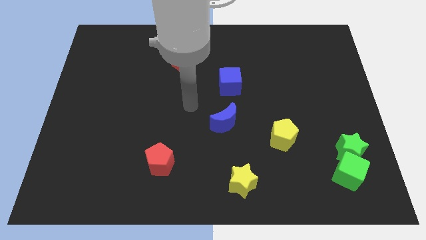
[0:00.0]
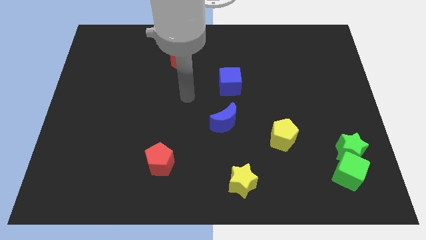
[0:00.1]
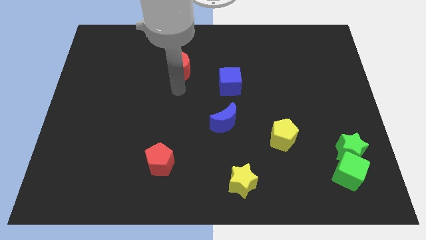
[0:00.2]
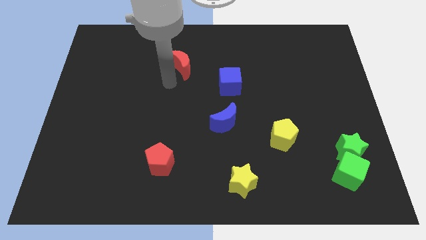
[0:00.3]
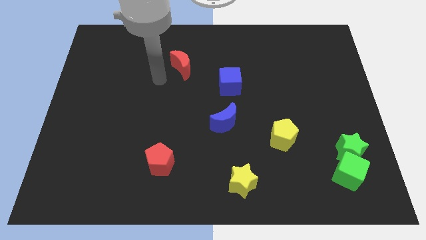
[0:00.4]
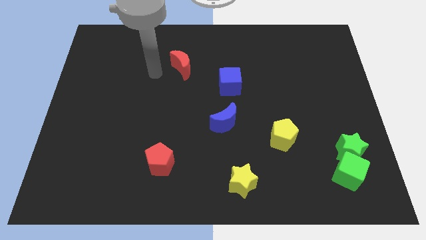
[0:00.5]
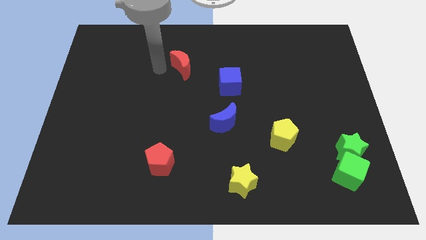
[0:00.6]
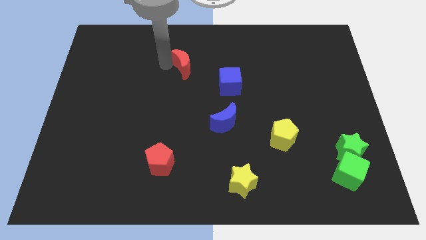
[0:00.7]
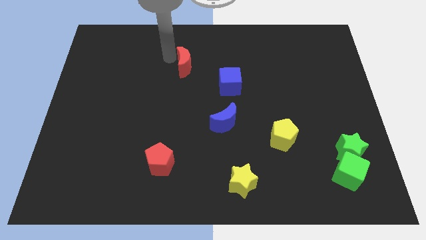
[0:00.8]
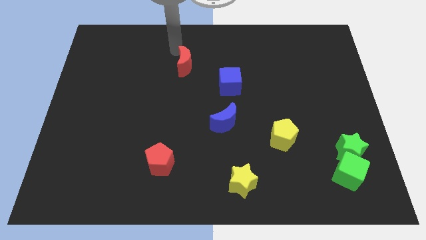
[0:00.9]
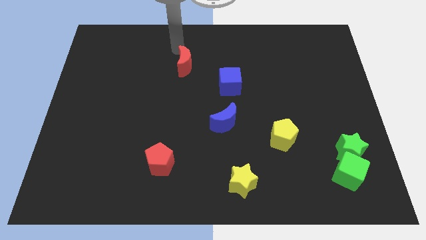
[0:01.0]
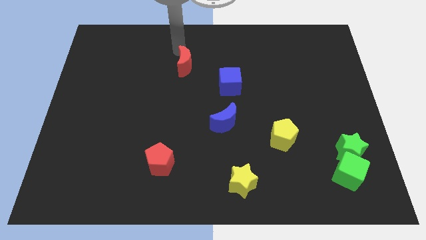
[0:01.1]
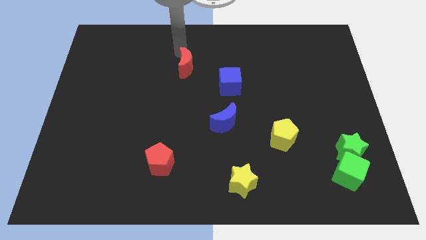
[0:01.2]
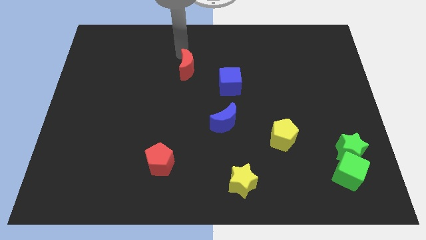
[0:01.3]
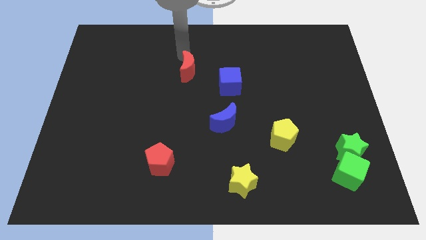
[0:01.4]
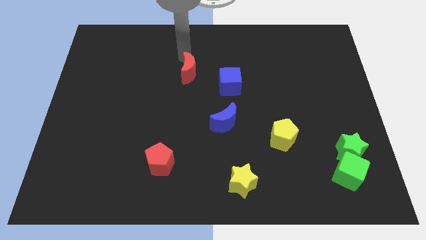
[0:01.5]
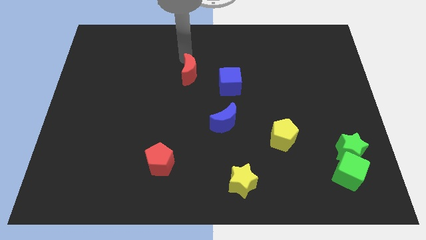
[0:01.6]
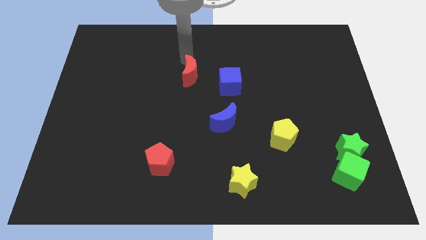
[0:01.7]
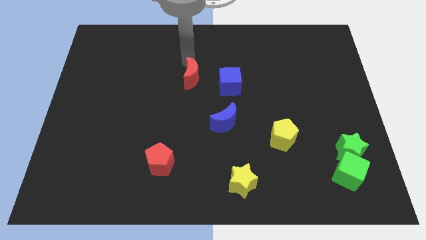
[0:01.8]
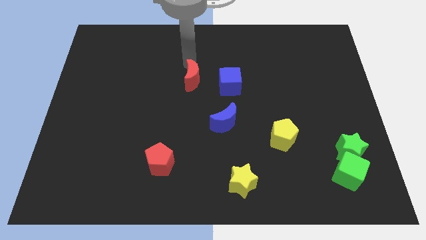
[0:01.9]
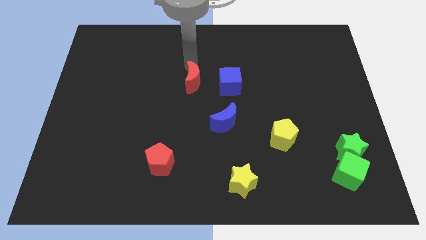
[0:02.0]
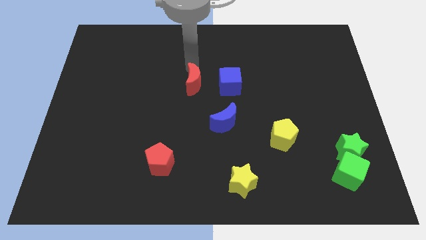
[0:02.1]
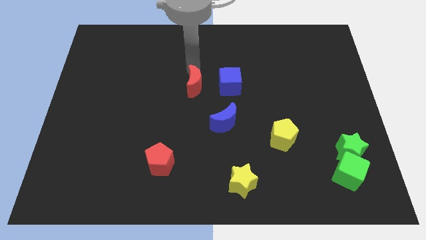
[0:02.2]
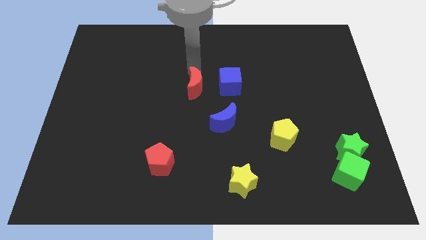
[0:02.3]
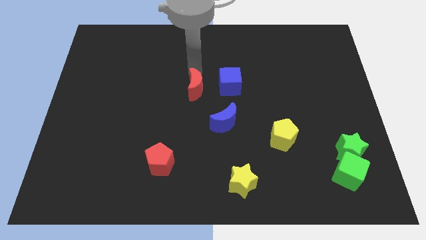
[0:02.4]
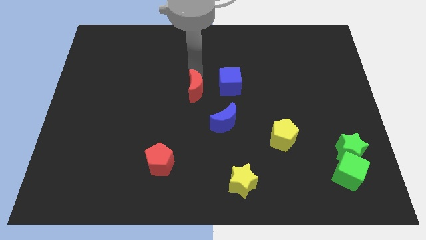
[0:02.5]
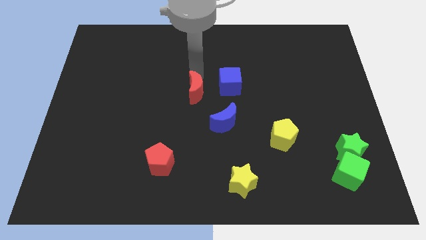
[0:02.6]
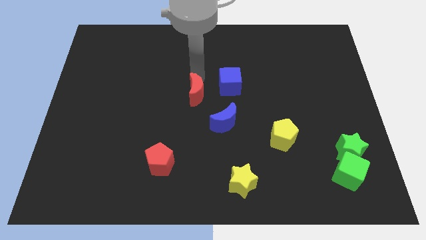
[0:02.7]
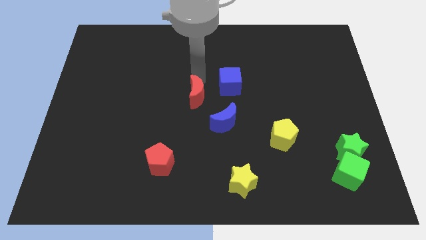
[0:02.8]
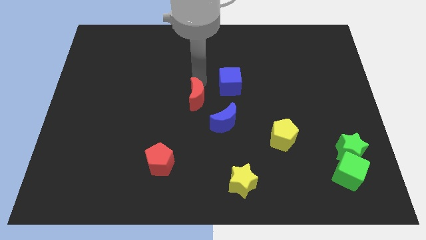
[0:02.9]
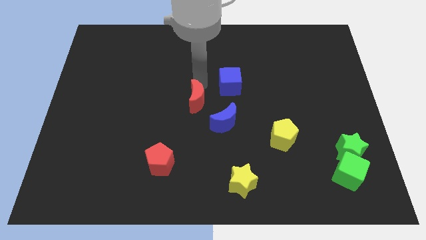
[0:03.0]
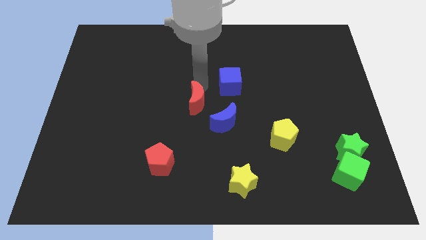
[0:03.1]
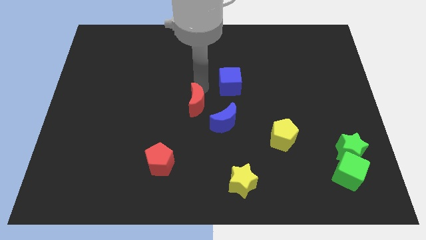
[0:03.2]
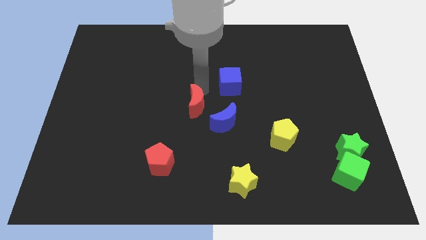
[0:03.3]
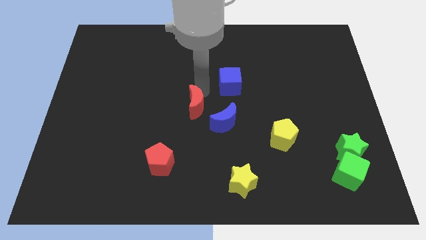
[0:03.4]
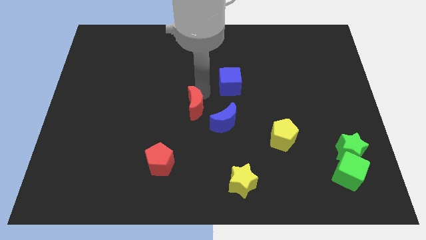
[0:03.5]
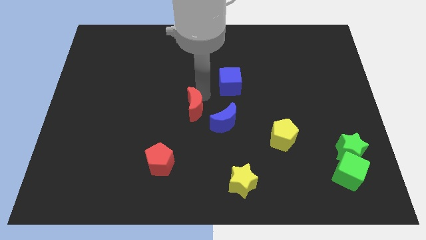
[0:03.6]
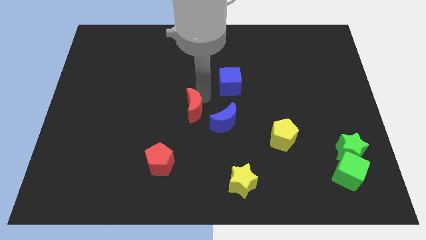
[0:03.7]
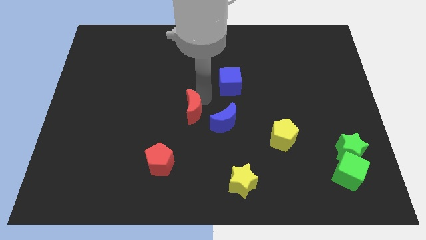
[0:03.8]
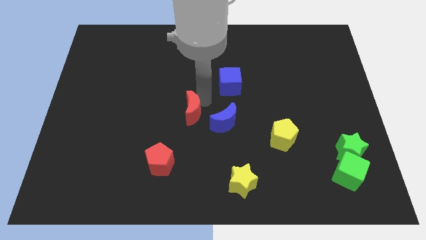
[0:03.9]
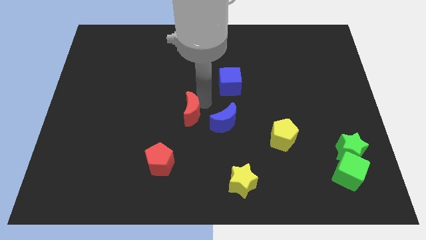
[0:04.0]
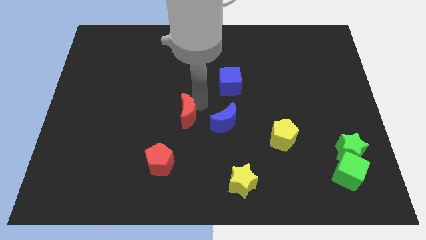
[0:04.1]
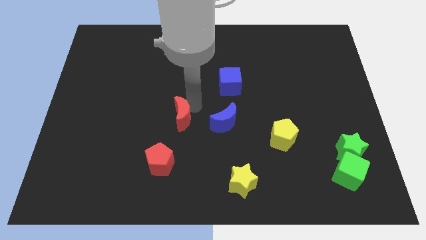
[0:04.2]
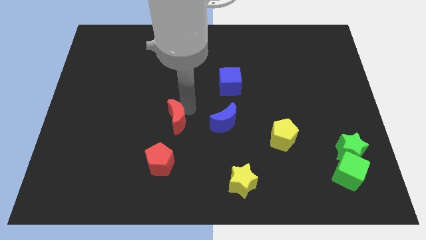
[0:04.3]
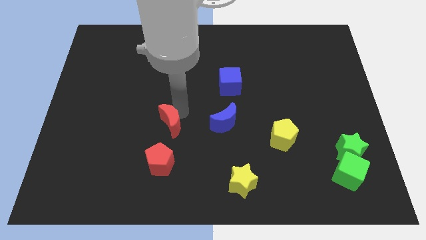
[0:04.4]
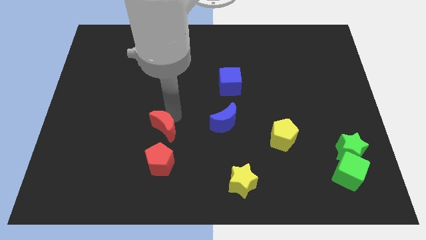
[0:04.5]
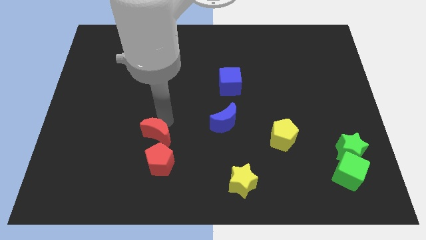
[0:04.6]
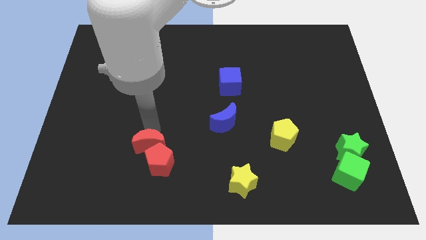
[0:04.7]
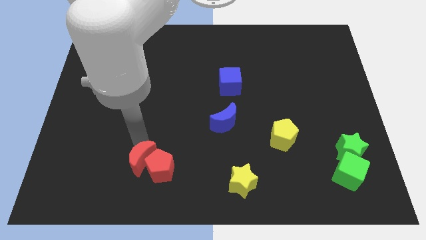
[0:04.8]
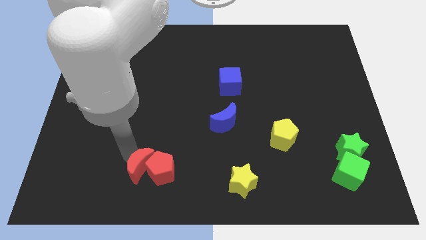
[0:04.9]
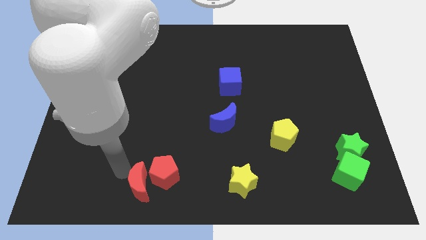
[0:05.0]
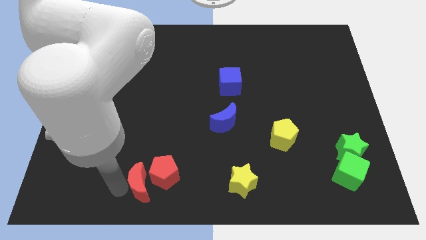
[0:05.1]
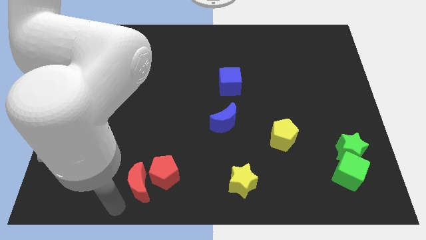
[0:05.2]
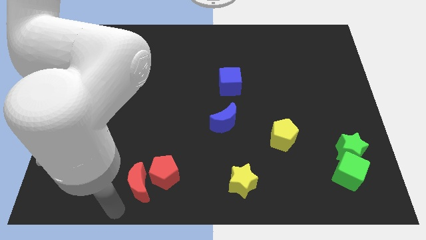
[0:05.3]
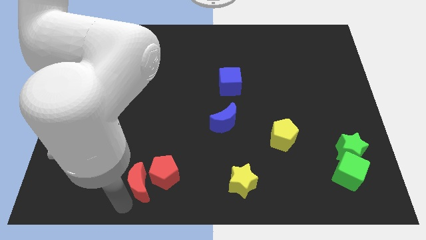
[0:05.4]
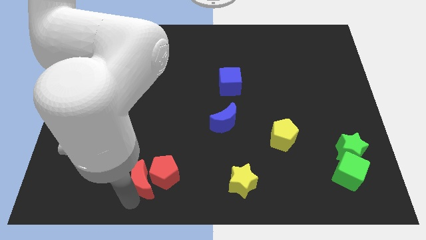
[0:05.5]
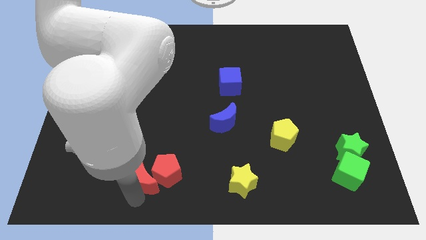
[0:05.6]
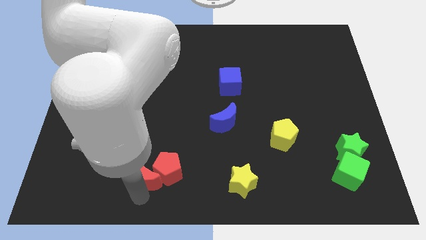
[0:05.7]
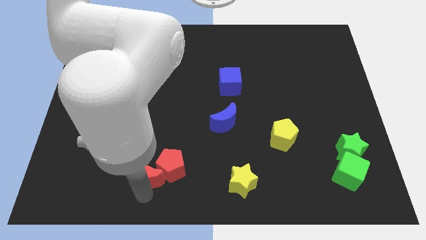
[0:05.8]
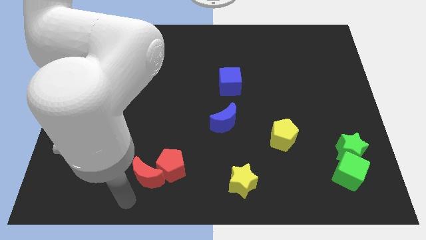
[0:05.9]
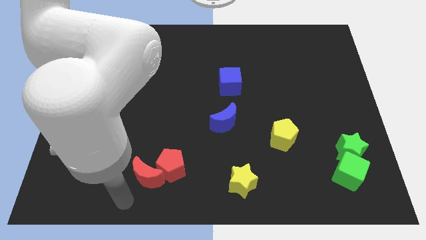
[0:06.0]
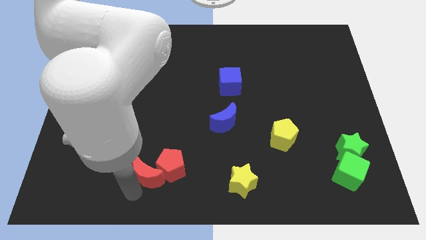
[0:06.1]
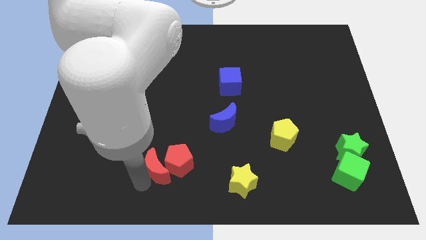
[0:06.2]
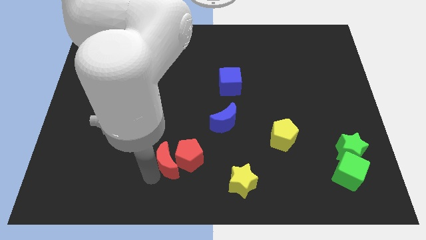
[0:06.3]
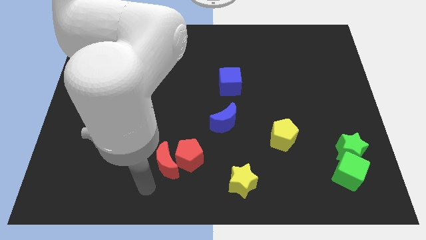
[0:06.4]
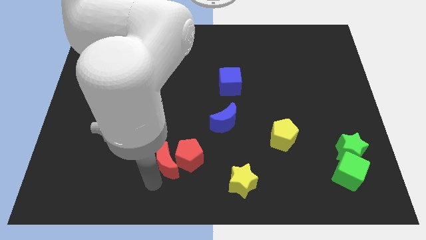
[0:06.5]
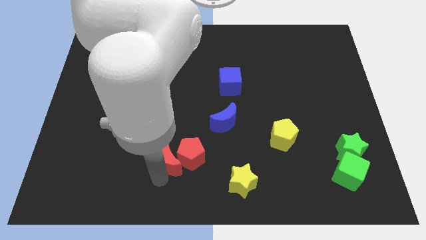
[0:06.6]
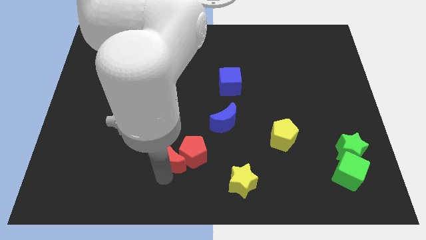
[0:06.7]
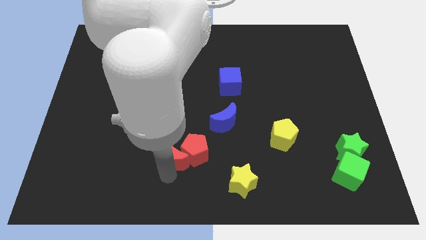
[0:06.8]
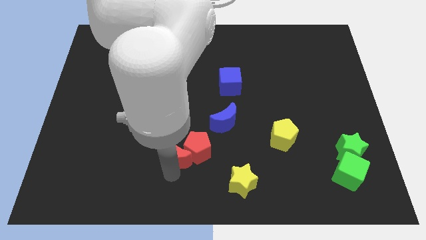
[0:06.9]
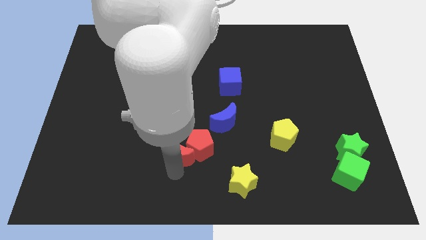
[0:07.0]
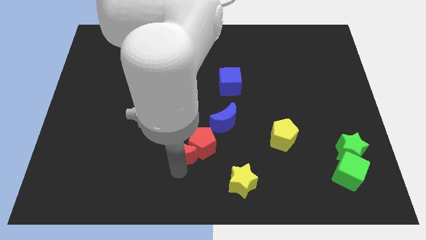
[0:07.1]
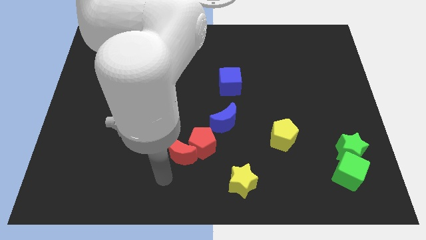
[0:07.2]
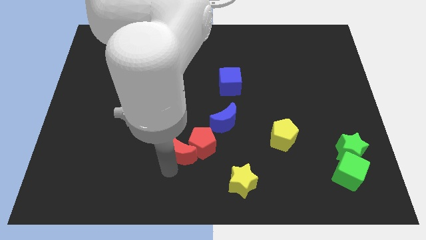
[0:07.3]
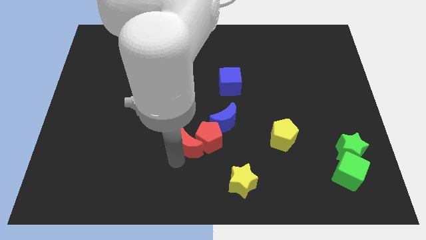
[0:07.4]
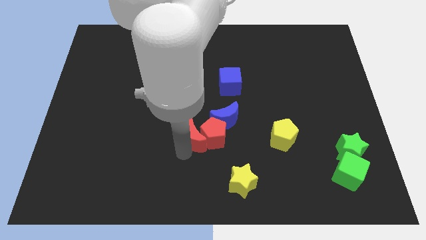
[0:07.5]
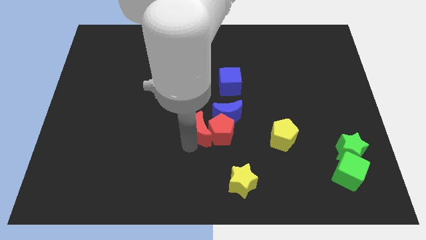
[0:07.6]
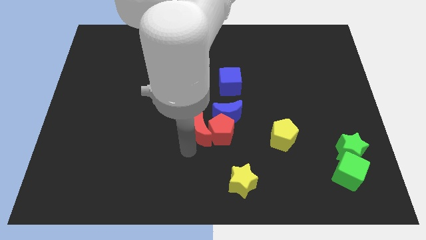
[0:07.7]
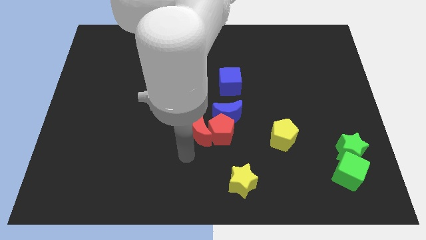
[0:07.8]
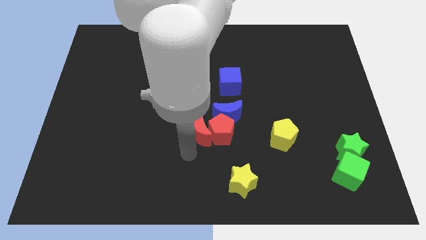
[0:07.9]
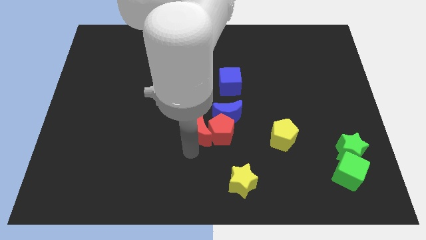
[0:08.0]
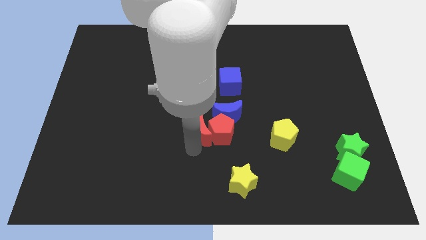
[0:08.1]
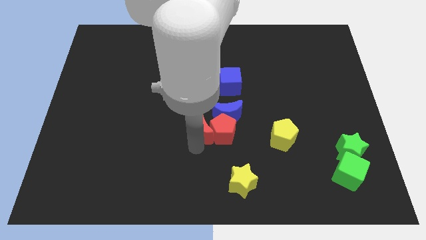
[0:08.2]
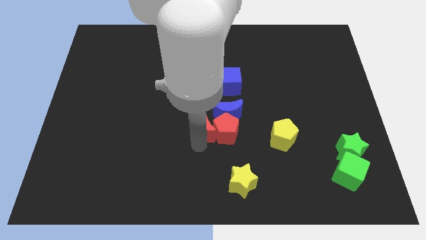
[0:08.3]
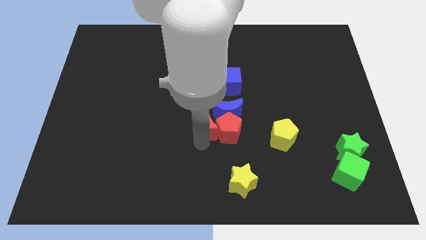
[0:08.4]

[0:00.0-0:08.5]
put the red moon towards the blue moon
